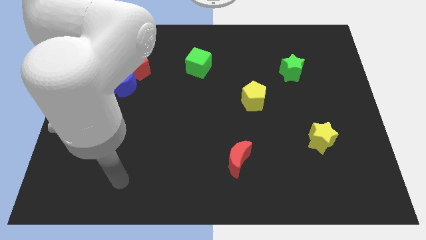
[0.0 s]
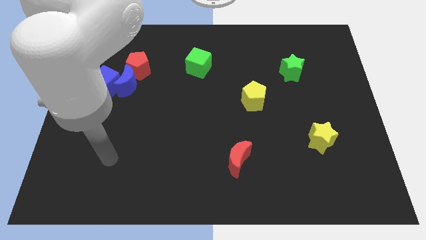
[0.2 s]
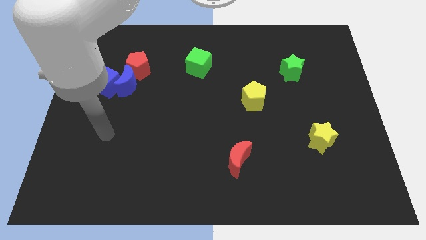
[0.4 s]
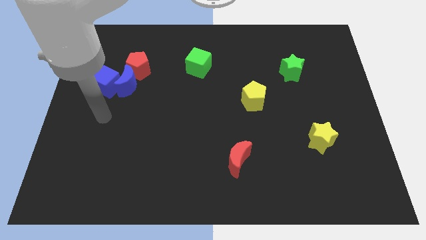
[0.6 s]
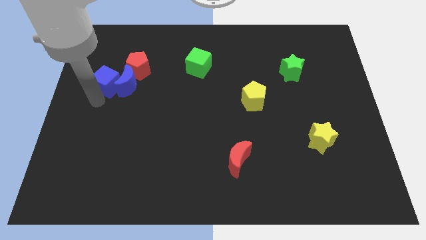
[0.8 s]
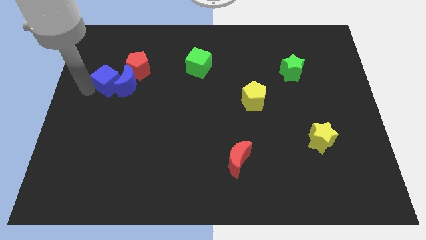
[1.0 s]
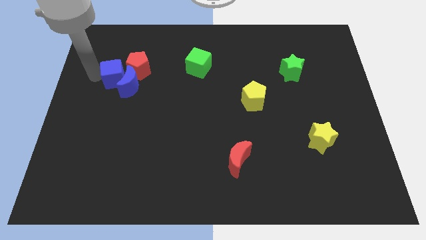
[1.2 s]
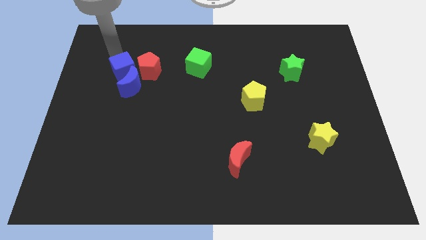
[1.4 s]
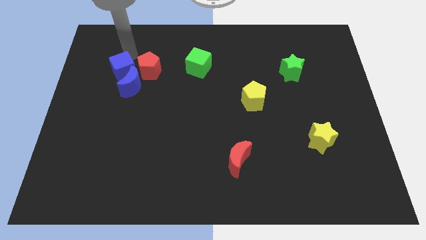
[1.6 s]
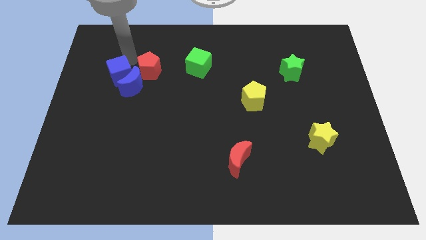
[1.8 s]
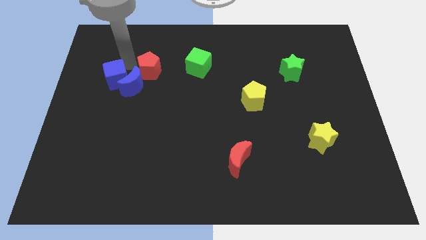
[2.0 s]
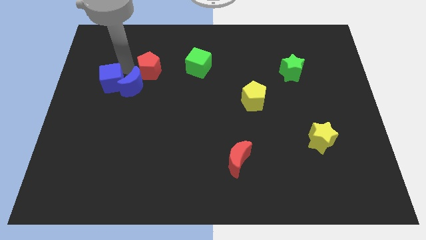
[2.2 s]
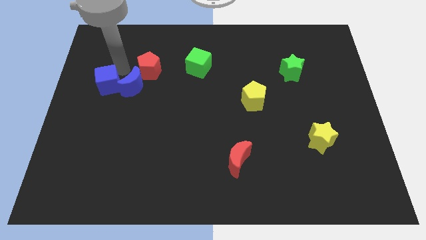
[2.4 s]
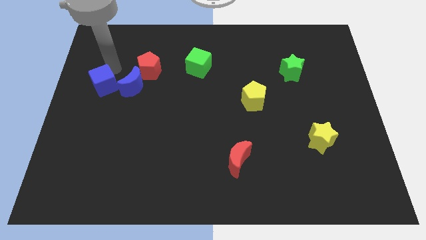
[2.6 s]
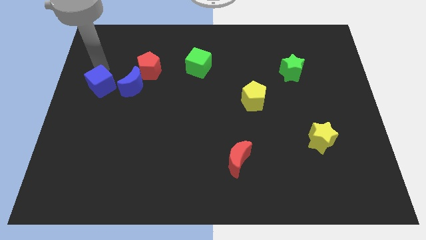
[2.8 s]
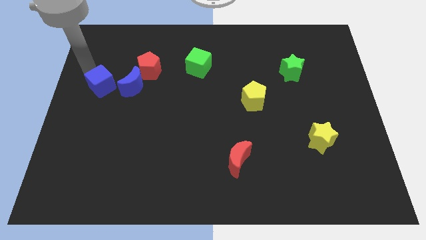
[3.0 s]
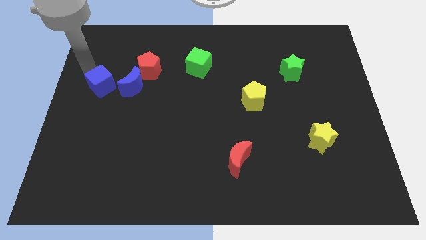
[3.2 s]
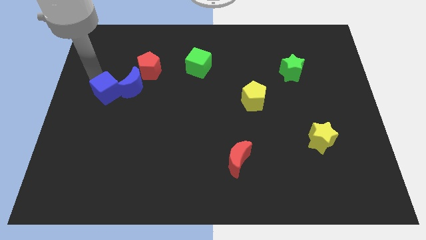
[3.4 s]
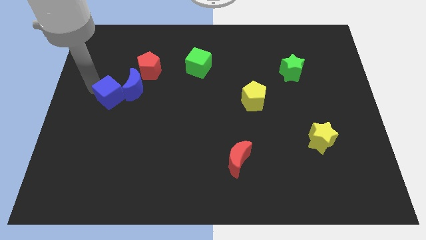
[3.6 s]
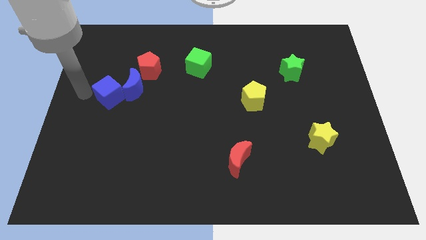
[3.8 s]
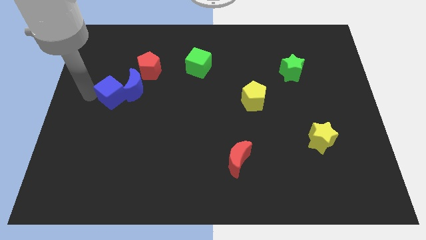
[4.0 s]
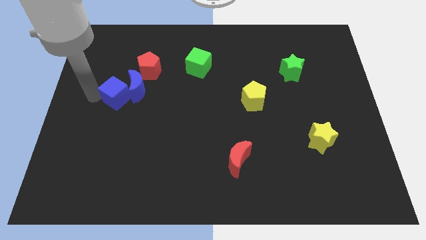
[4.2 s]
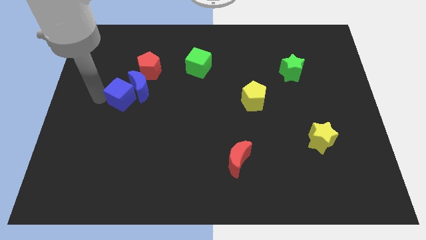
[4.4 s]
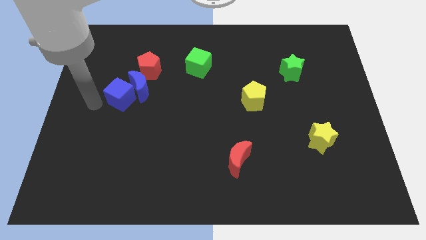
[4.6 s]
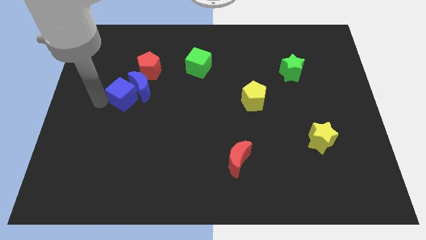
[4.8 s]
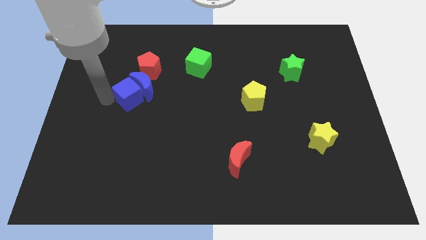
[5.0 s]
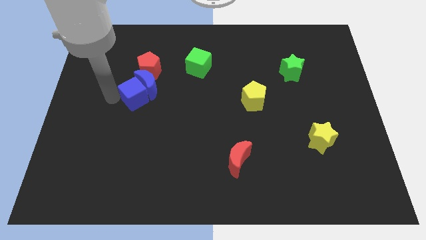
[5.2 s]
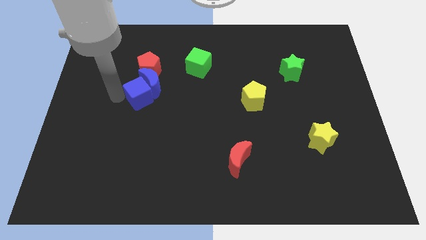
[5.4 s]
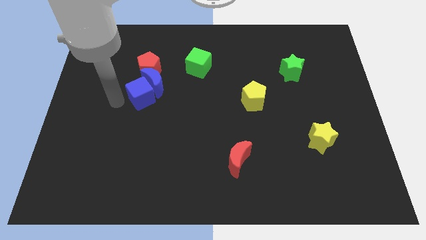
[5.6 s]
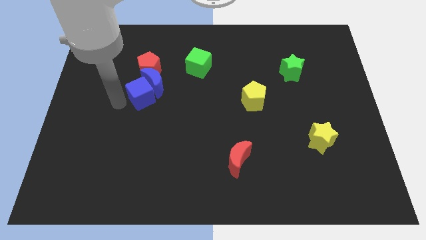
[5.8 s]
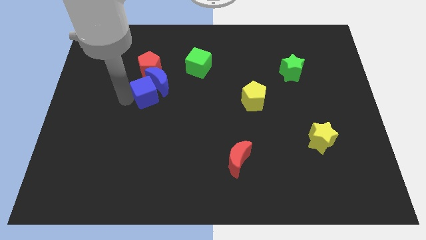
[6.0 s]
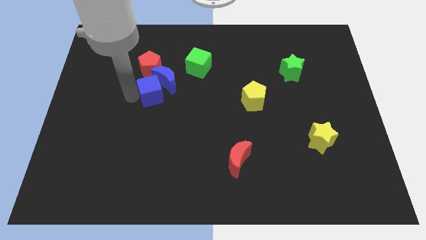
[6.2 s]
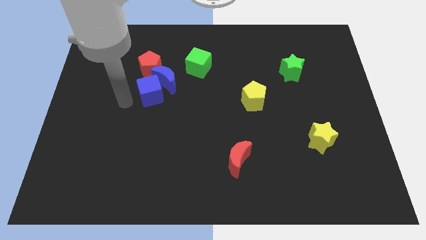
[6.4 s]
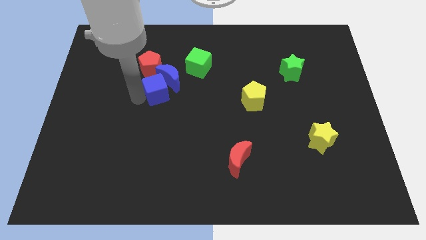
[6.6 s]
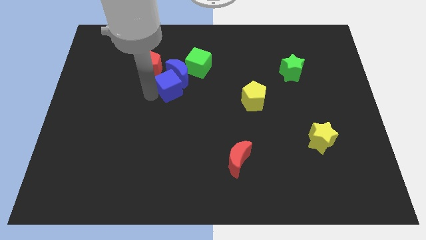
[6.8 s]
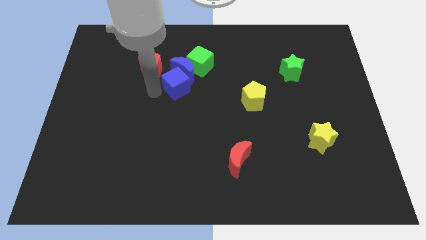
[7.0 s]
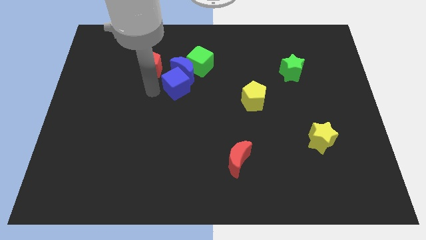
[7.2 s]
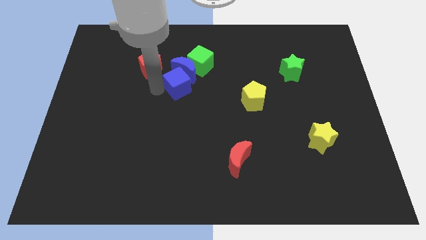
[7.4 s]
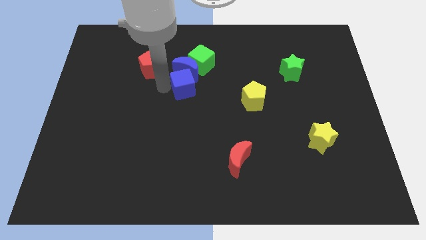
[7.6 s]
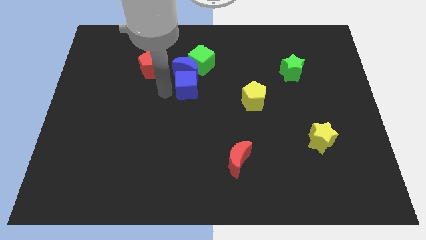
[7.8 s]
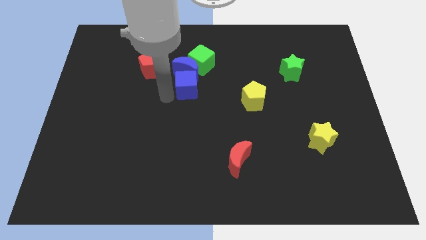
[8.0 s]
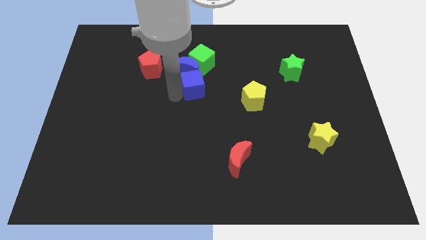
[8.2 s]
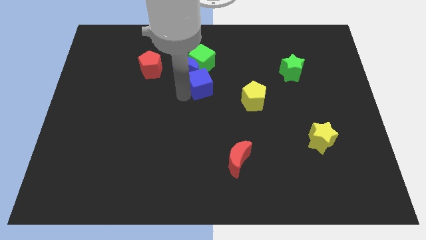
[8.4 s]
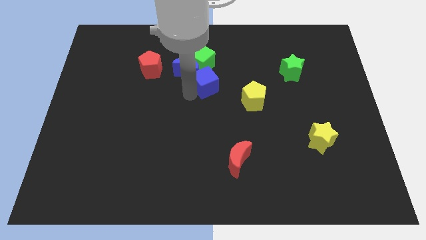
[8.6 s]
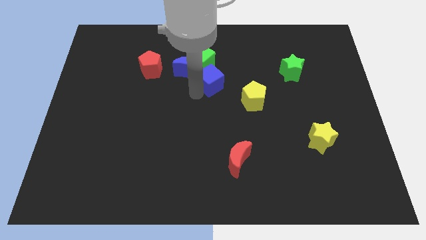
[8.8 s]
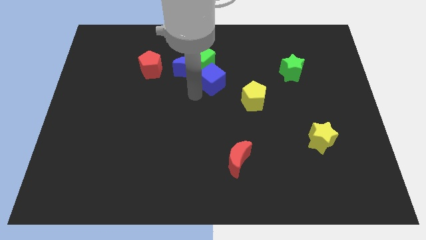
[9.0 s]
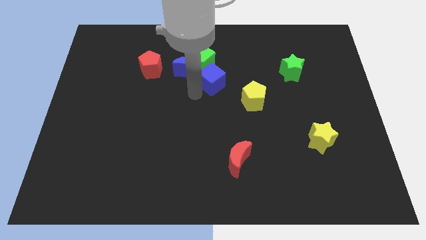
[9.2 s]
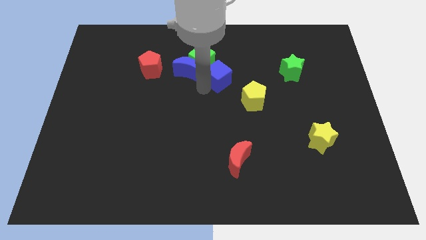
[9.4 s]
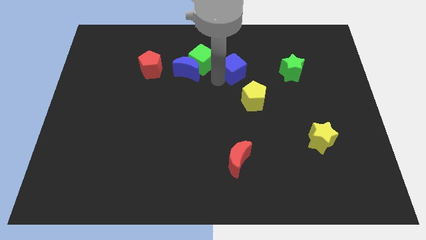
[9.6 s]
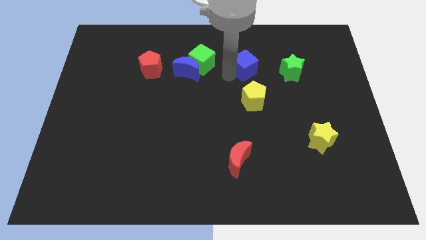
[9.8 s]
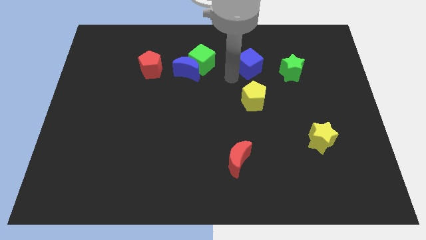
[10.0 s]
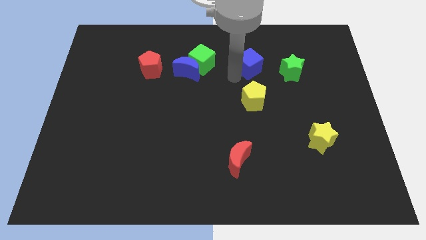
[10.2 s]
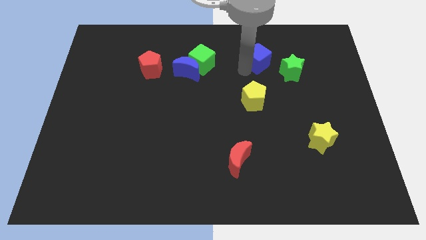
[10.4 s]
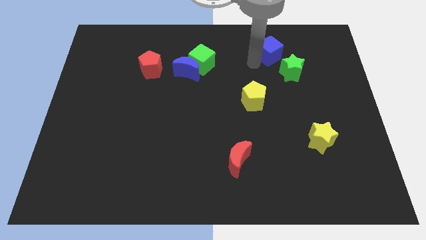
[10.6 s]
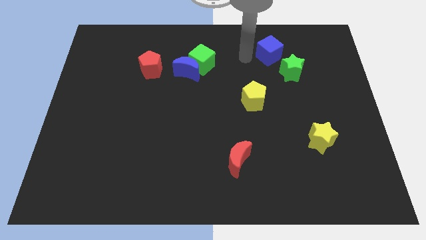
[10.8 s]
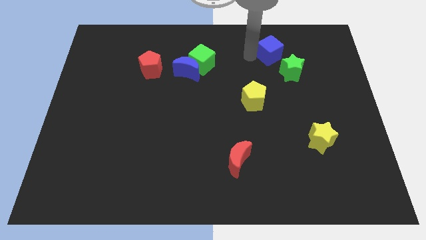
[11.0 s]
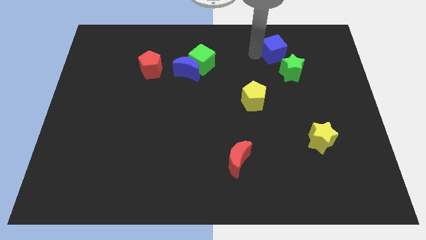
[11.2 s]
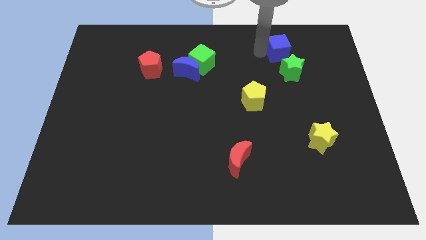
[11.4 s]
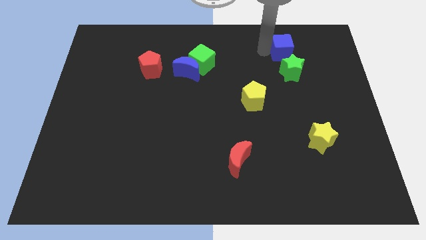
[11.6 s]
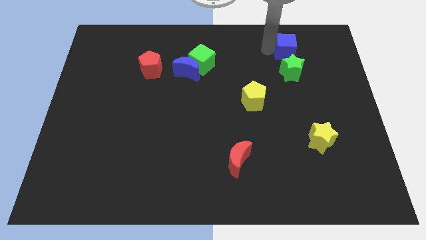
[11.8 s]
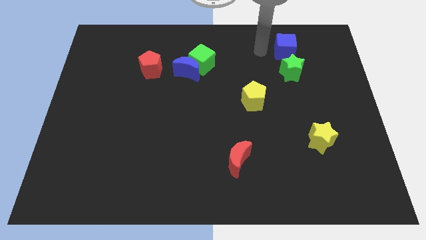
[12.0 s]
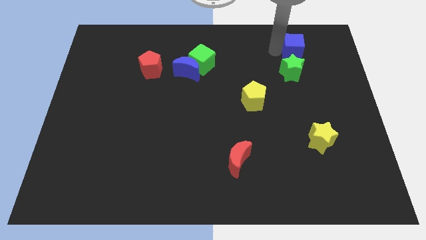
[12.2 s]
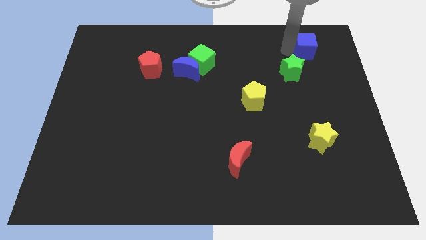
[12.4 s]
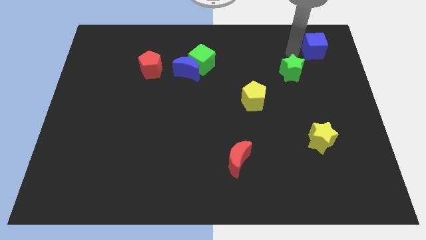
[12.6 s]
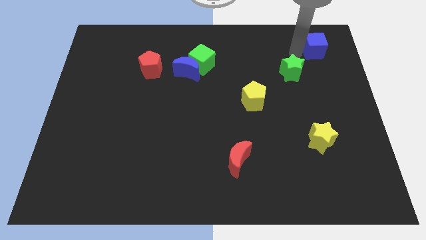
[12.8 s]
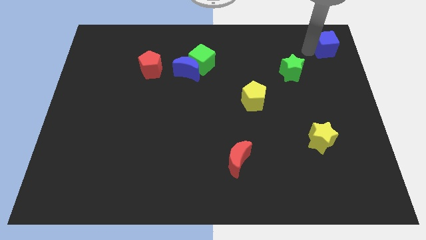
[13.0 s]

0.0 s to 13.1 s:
slide the blue cube to the top right

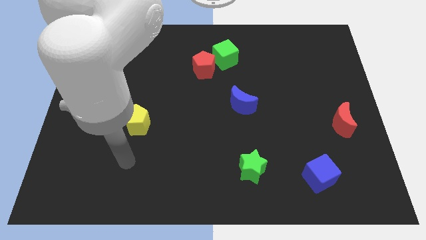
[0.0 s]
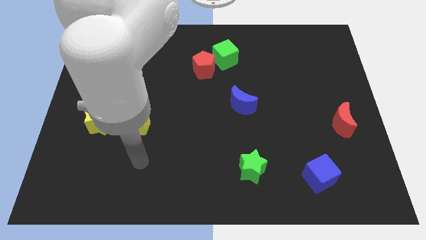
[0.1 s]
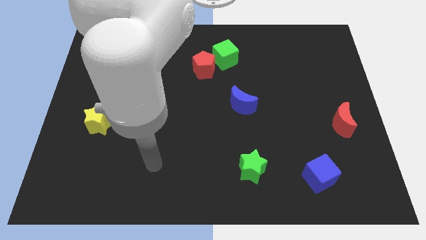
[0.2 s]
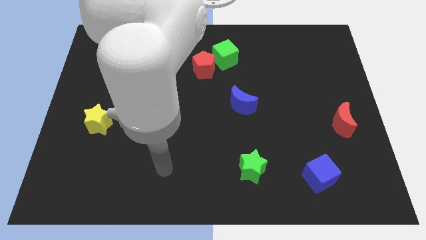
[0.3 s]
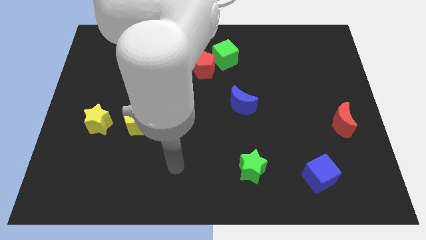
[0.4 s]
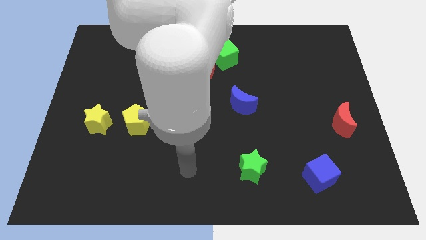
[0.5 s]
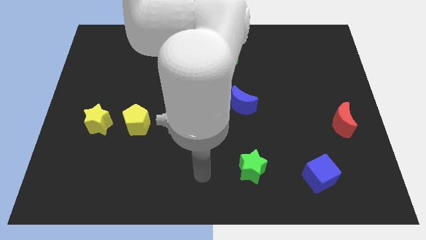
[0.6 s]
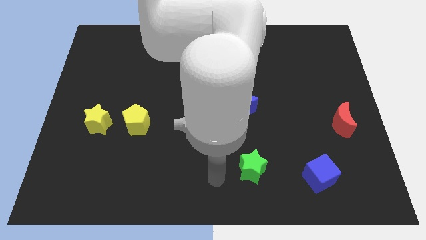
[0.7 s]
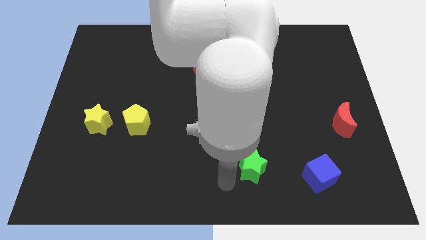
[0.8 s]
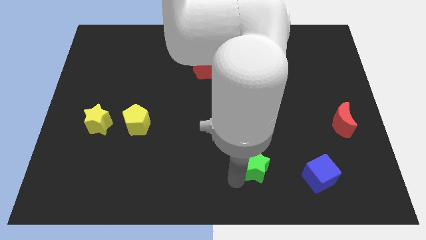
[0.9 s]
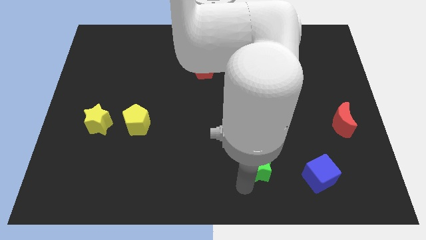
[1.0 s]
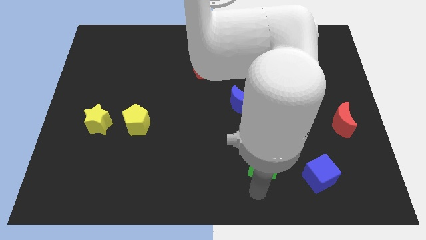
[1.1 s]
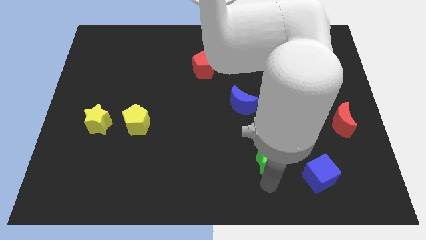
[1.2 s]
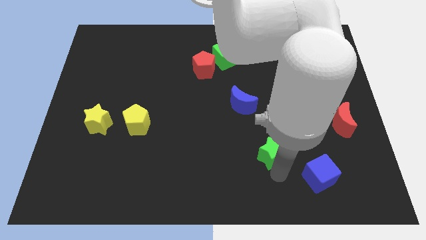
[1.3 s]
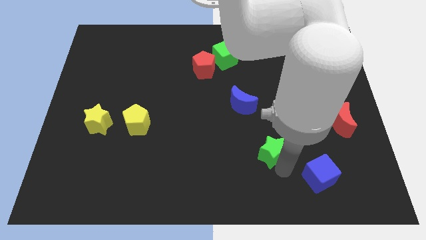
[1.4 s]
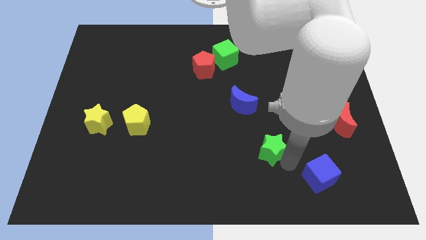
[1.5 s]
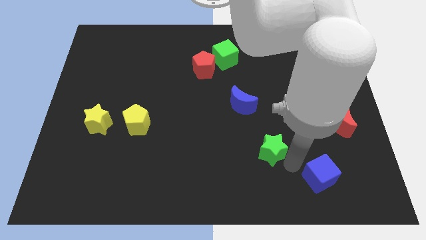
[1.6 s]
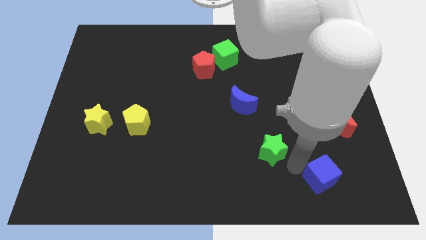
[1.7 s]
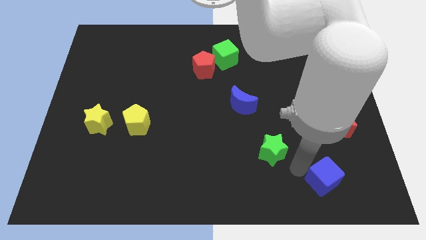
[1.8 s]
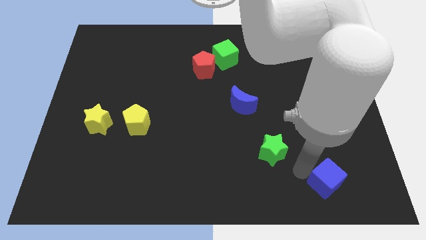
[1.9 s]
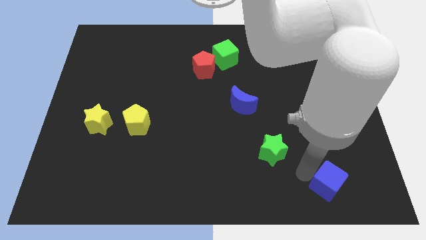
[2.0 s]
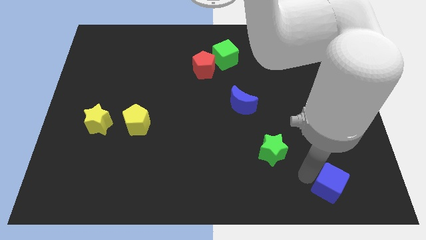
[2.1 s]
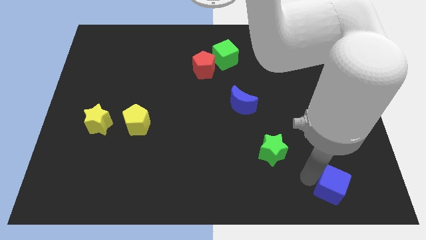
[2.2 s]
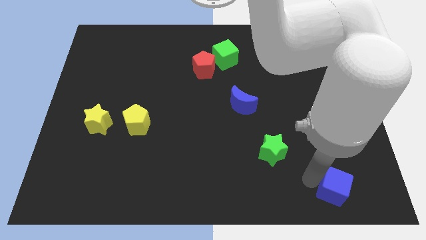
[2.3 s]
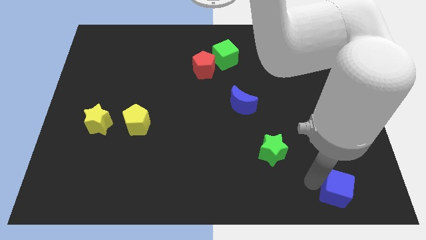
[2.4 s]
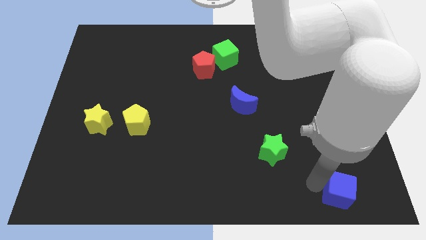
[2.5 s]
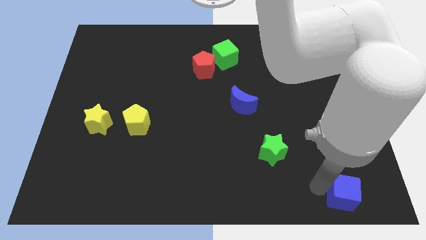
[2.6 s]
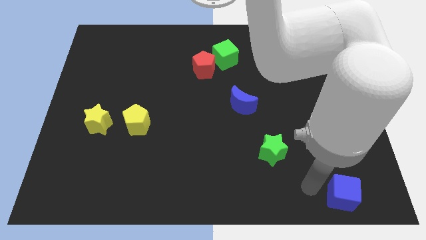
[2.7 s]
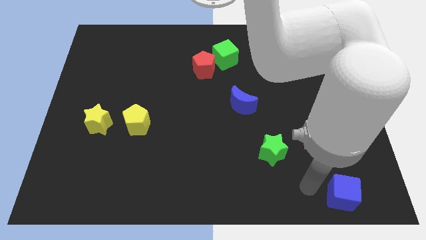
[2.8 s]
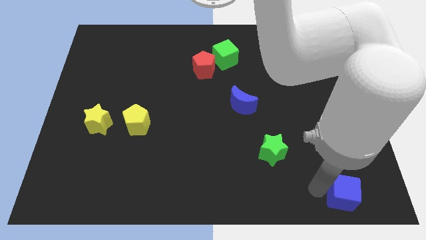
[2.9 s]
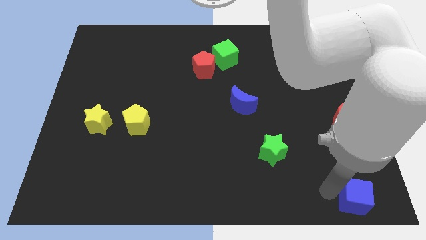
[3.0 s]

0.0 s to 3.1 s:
push the blue cube to the bottom right corner
